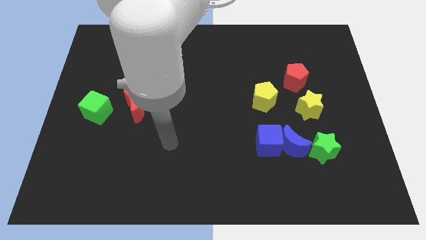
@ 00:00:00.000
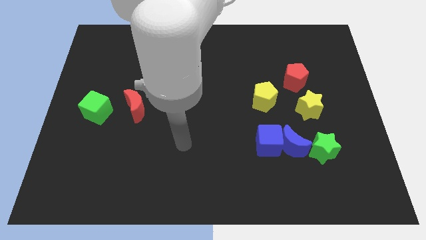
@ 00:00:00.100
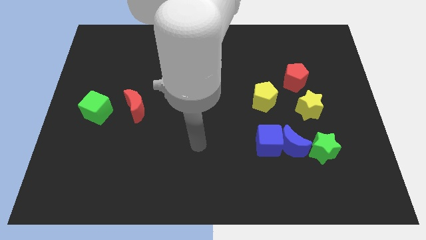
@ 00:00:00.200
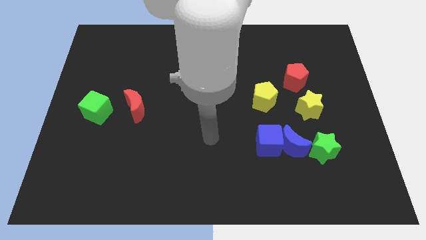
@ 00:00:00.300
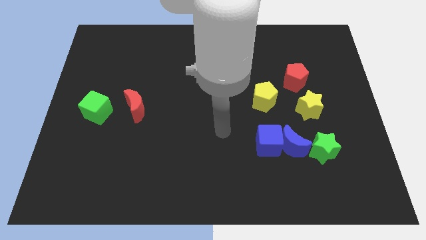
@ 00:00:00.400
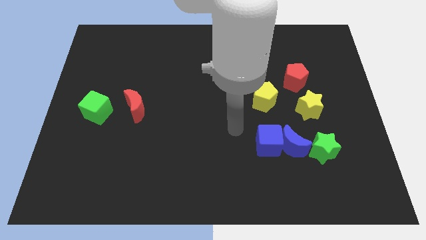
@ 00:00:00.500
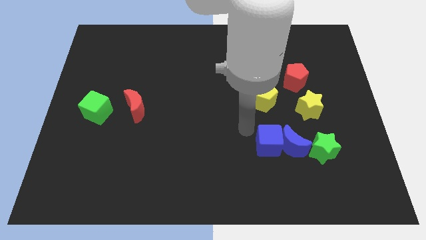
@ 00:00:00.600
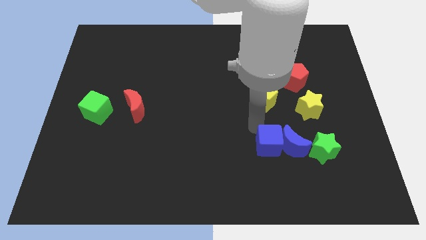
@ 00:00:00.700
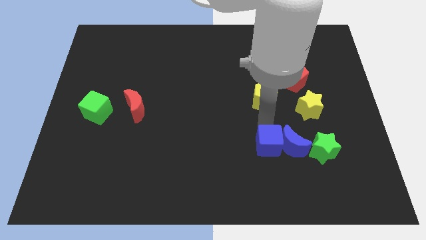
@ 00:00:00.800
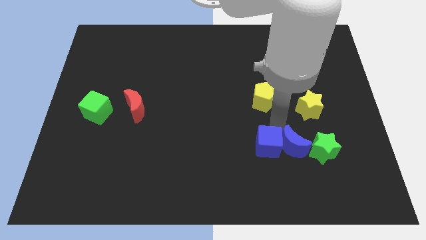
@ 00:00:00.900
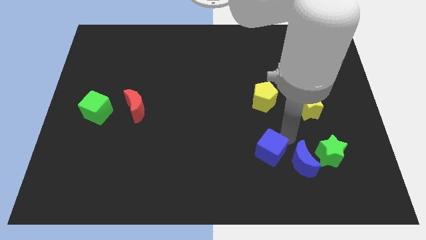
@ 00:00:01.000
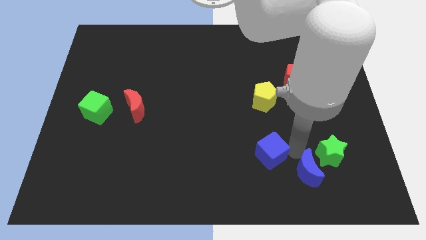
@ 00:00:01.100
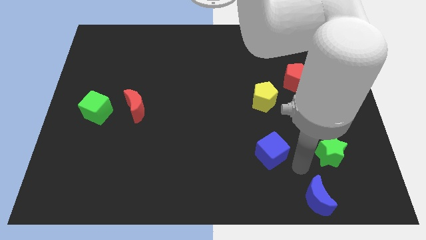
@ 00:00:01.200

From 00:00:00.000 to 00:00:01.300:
separate the blue cube from the blue moon

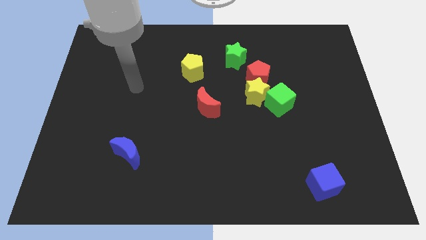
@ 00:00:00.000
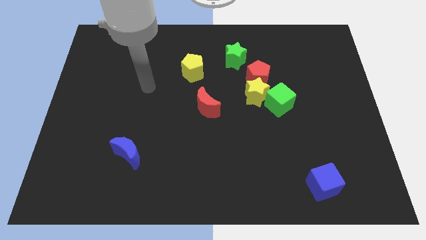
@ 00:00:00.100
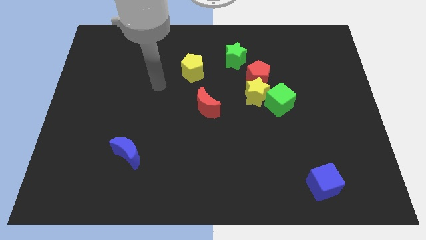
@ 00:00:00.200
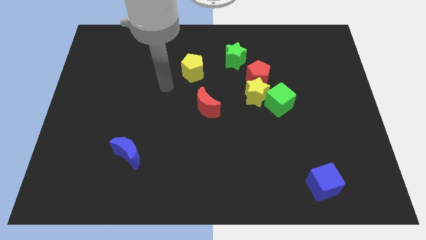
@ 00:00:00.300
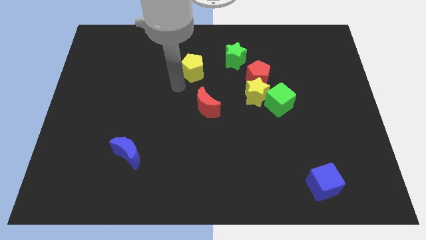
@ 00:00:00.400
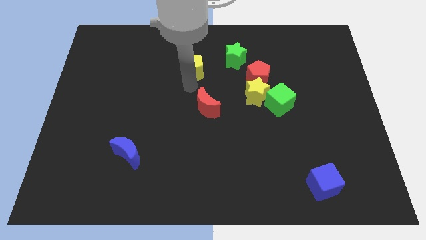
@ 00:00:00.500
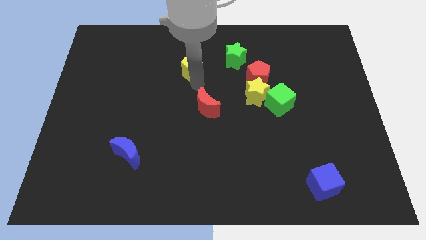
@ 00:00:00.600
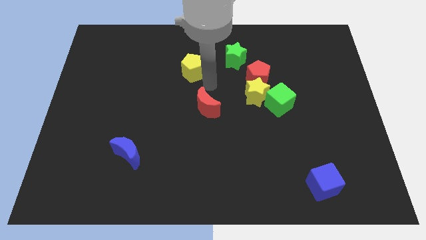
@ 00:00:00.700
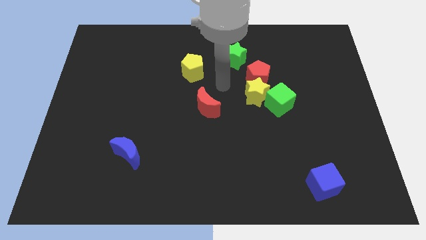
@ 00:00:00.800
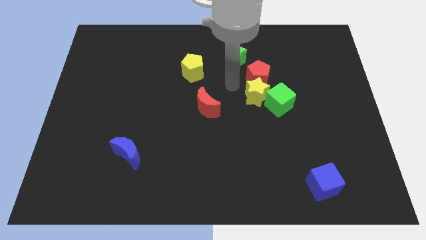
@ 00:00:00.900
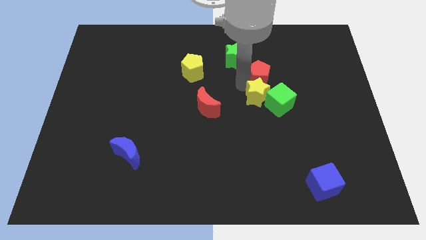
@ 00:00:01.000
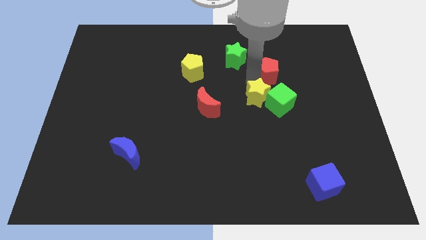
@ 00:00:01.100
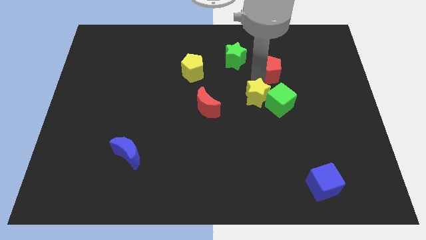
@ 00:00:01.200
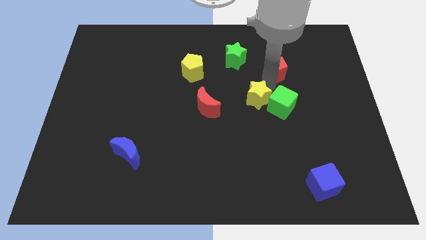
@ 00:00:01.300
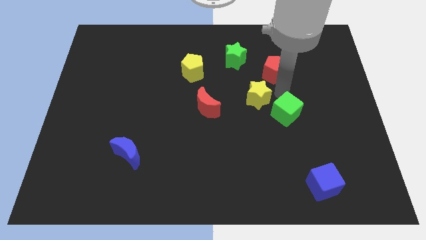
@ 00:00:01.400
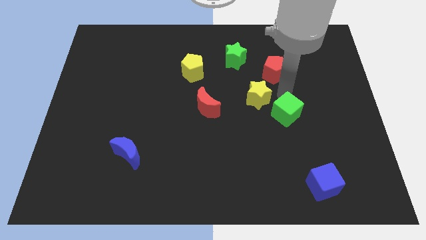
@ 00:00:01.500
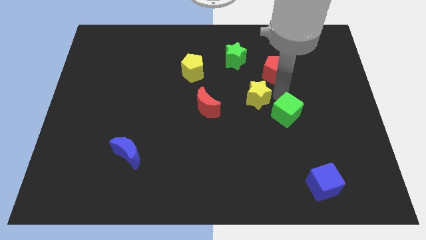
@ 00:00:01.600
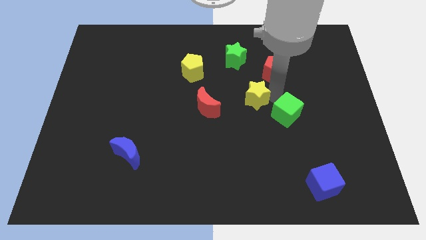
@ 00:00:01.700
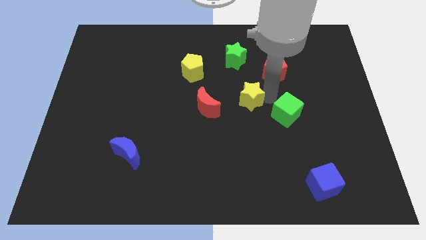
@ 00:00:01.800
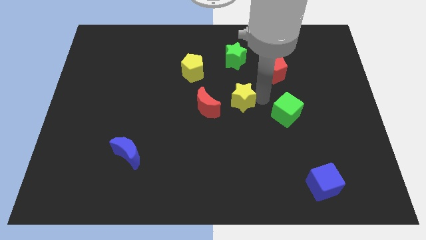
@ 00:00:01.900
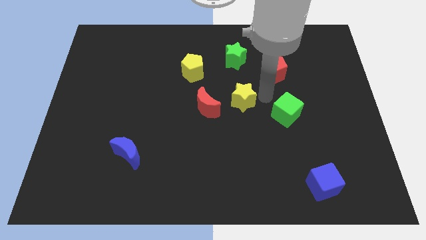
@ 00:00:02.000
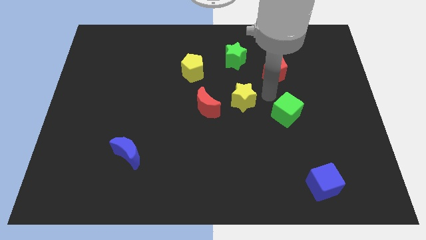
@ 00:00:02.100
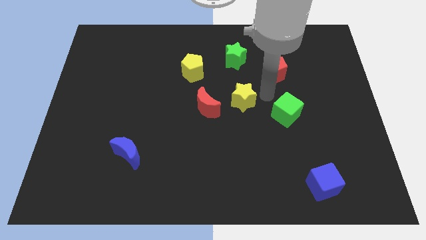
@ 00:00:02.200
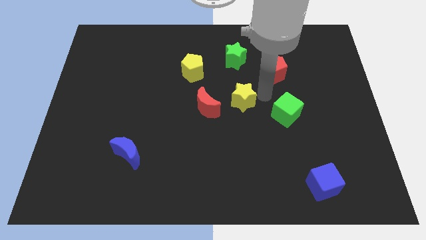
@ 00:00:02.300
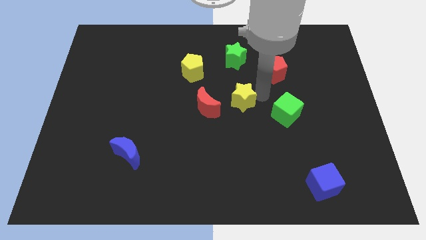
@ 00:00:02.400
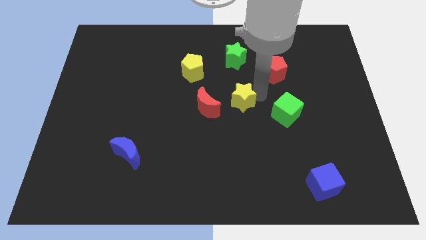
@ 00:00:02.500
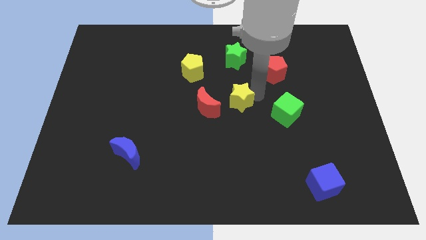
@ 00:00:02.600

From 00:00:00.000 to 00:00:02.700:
separate the yellow star from the green cube and red pentagon

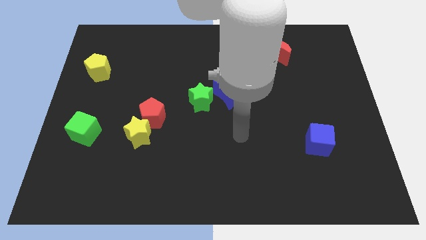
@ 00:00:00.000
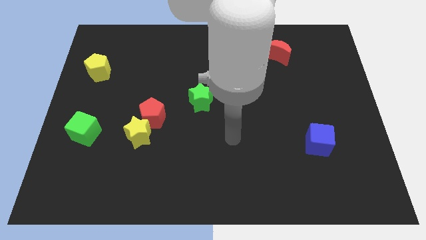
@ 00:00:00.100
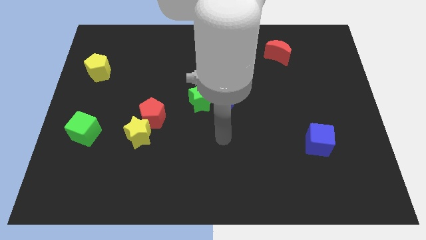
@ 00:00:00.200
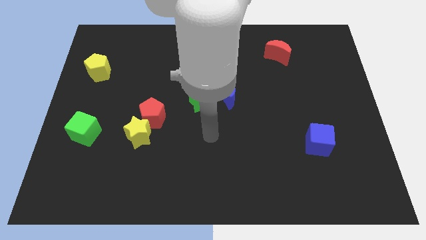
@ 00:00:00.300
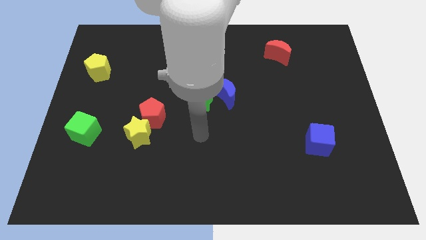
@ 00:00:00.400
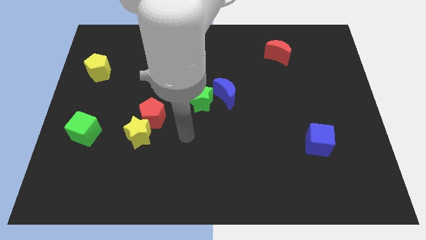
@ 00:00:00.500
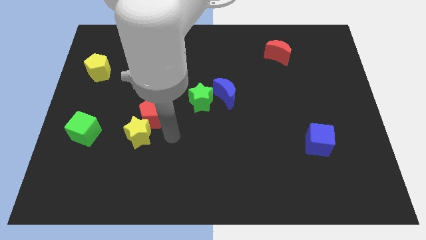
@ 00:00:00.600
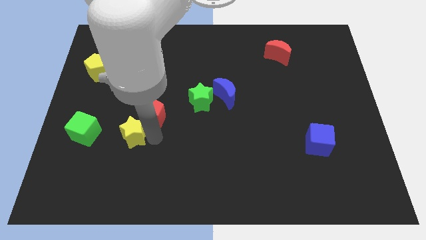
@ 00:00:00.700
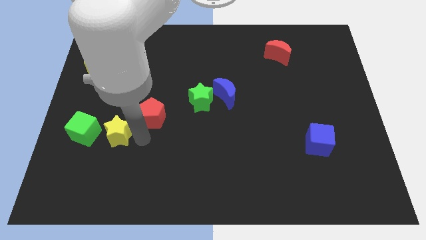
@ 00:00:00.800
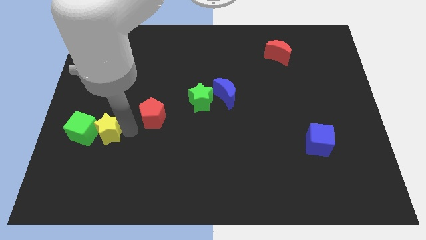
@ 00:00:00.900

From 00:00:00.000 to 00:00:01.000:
move the red pentagon away from the yellow star

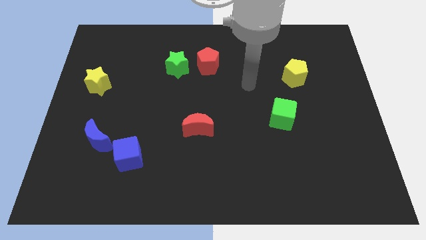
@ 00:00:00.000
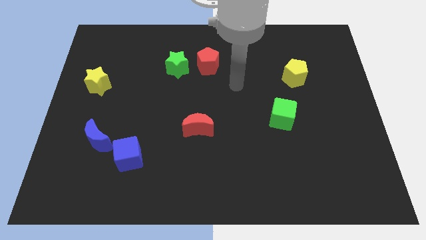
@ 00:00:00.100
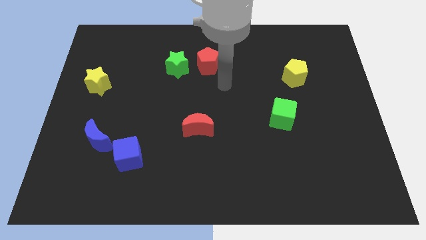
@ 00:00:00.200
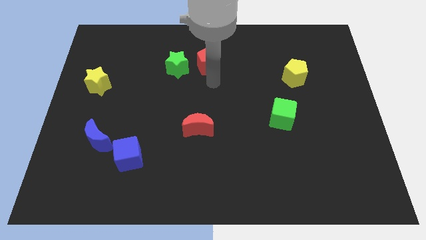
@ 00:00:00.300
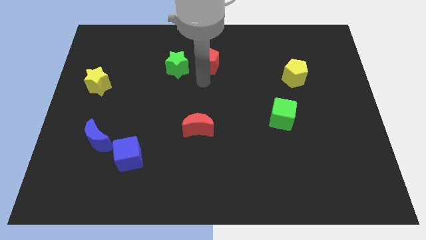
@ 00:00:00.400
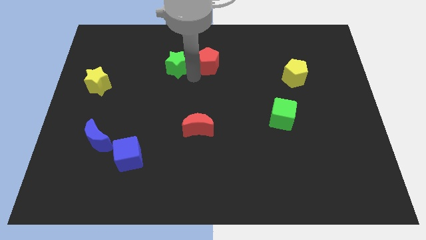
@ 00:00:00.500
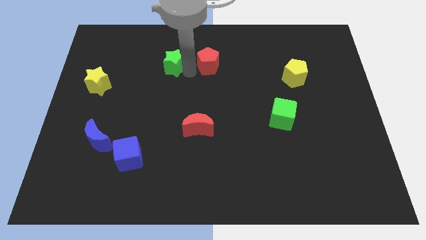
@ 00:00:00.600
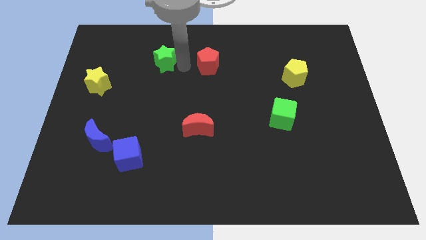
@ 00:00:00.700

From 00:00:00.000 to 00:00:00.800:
move the red pentagon away from the green star

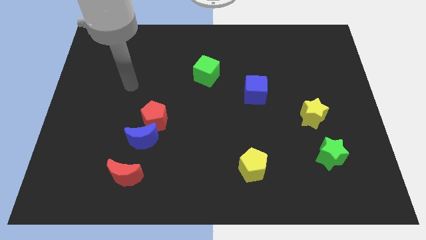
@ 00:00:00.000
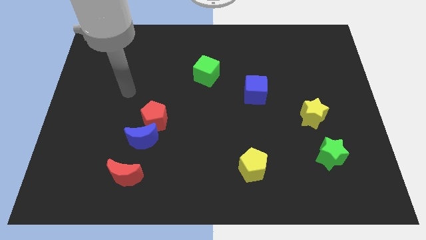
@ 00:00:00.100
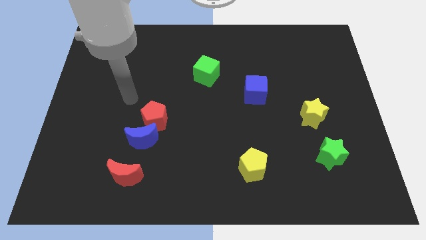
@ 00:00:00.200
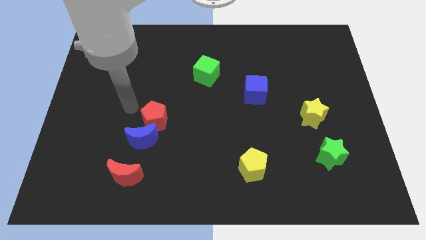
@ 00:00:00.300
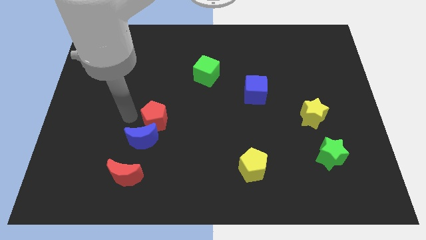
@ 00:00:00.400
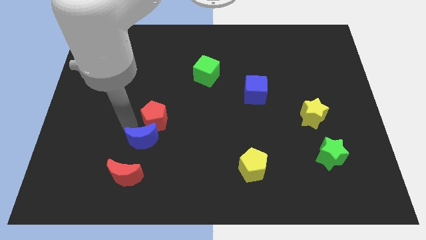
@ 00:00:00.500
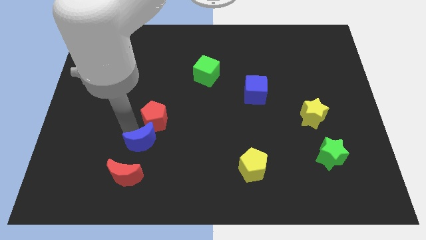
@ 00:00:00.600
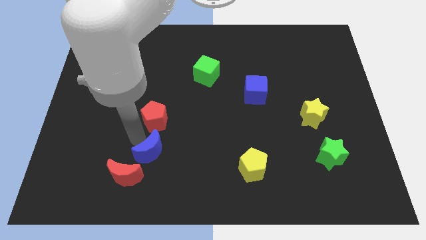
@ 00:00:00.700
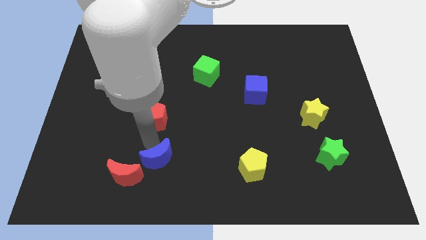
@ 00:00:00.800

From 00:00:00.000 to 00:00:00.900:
pull the red pentagon apart from the blue moon

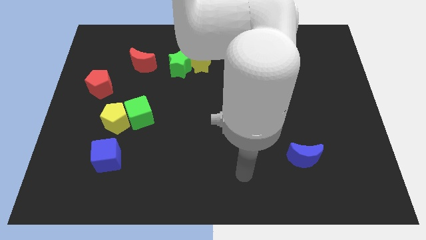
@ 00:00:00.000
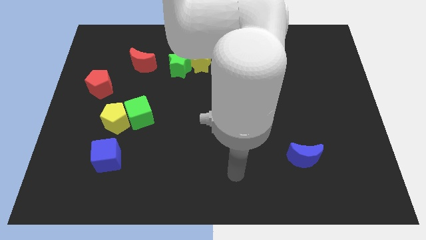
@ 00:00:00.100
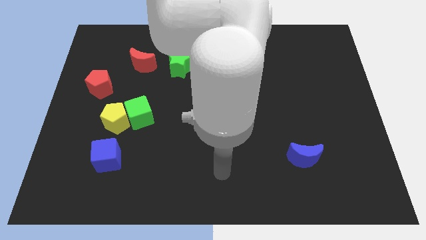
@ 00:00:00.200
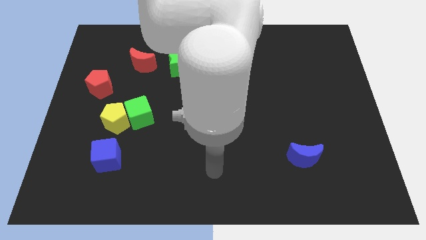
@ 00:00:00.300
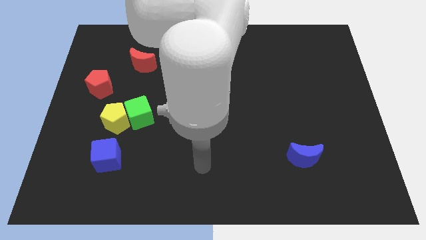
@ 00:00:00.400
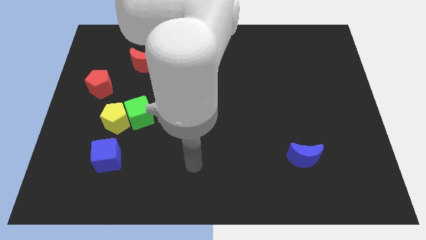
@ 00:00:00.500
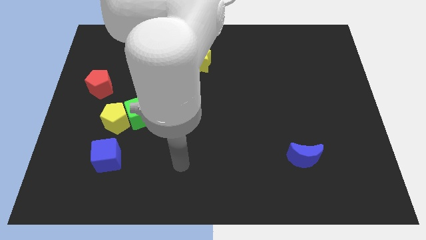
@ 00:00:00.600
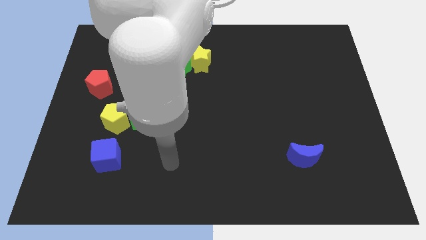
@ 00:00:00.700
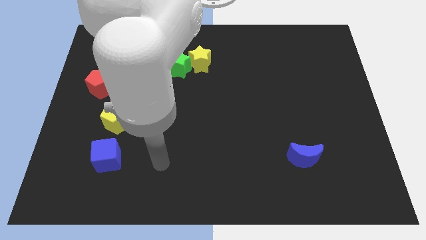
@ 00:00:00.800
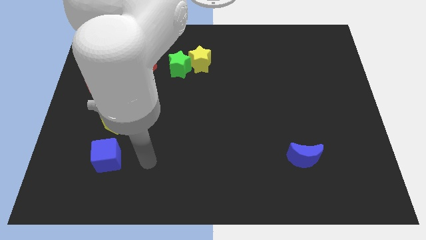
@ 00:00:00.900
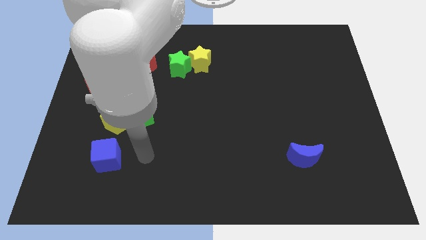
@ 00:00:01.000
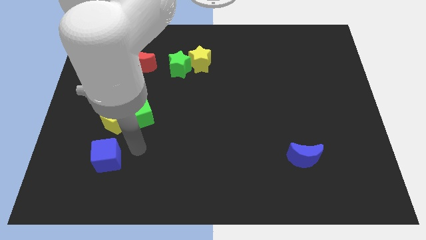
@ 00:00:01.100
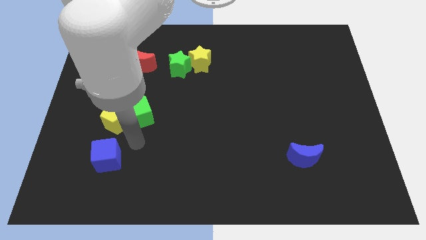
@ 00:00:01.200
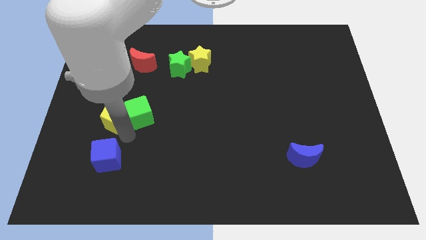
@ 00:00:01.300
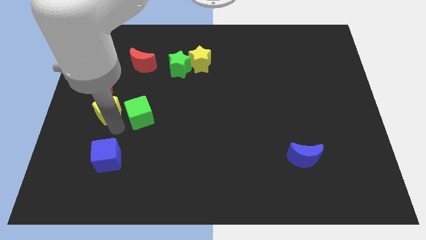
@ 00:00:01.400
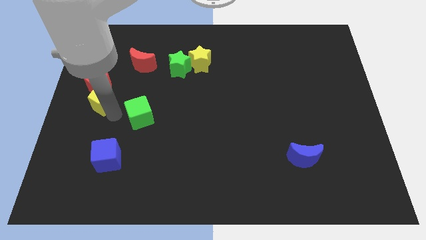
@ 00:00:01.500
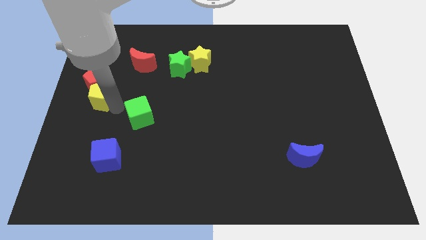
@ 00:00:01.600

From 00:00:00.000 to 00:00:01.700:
pull the green cube apart from the yellow pentagon

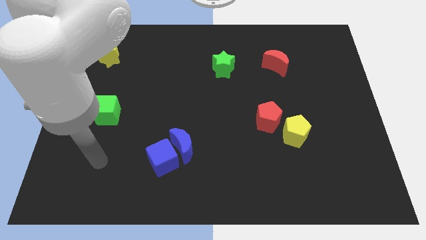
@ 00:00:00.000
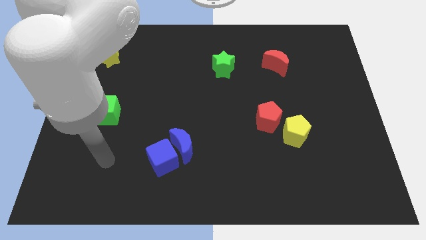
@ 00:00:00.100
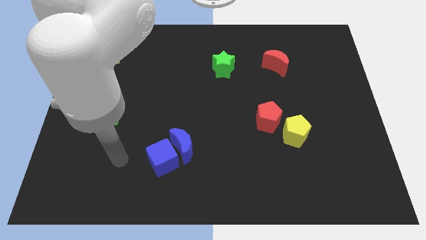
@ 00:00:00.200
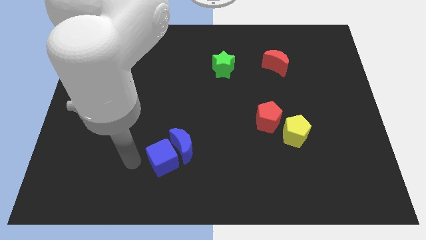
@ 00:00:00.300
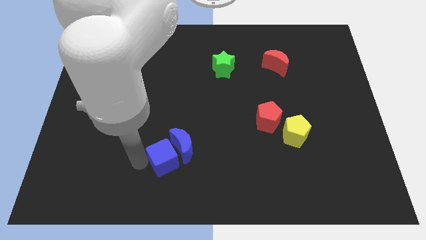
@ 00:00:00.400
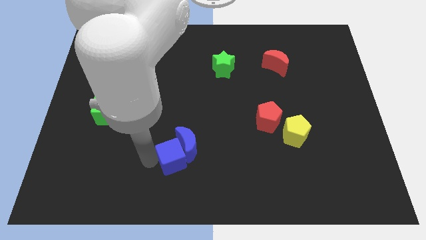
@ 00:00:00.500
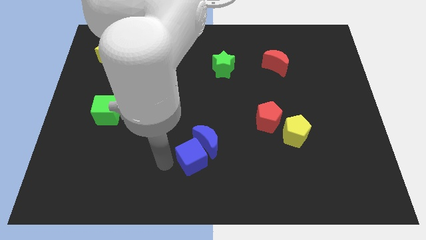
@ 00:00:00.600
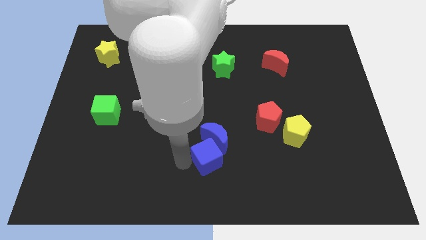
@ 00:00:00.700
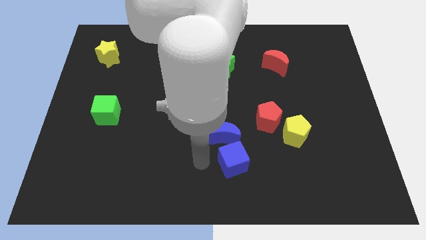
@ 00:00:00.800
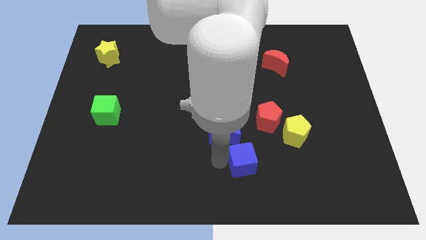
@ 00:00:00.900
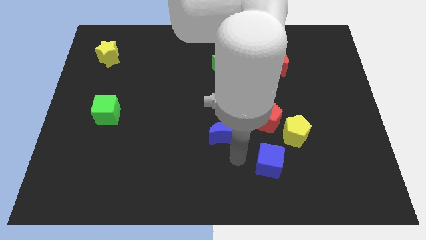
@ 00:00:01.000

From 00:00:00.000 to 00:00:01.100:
separate the blue moon from the blue cube
